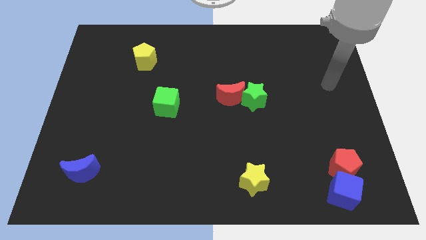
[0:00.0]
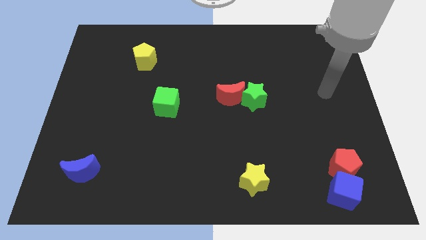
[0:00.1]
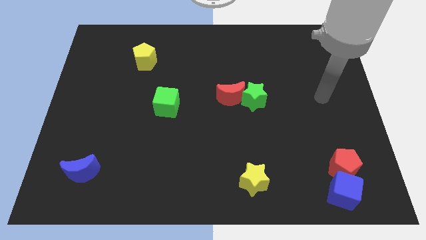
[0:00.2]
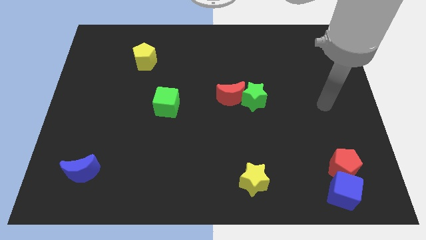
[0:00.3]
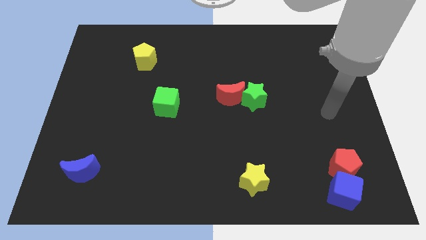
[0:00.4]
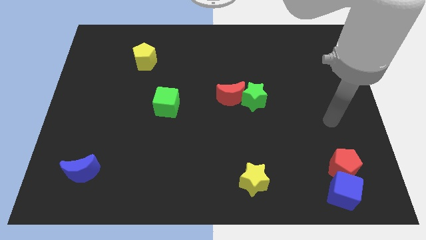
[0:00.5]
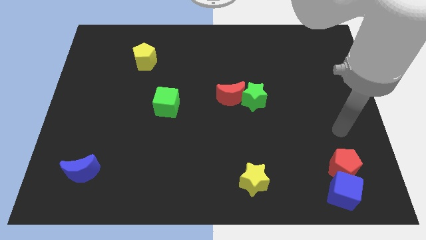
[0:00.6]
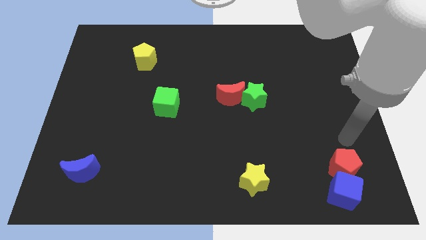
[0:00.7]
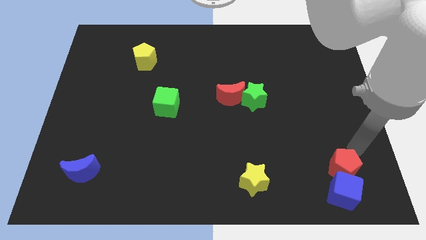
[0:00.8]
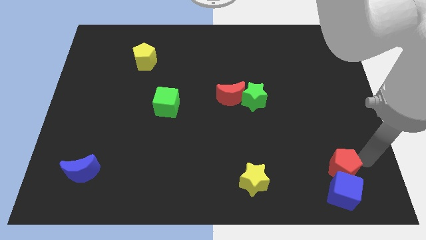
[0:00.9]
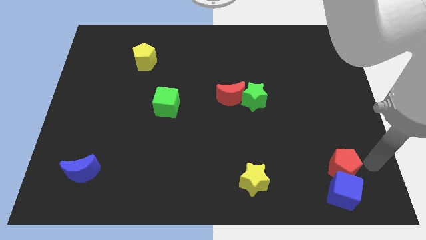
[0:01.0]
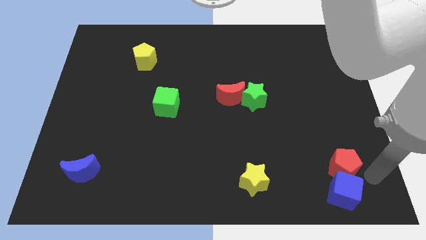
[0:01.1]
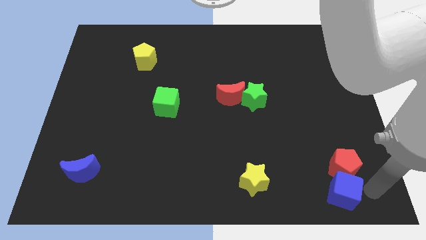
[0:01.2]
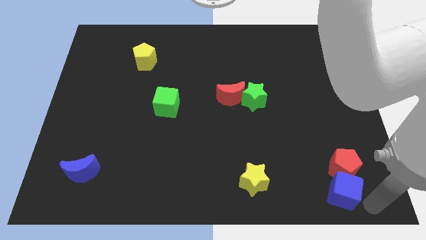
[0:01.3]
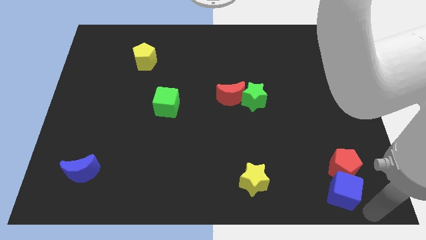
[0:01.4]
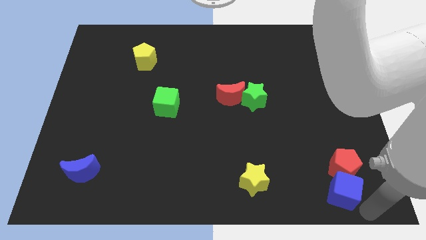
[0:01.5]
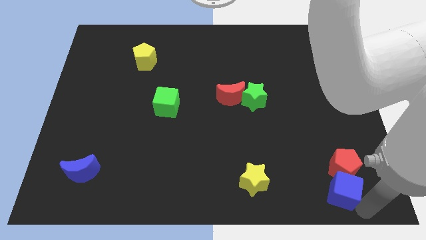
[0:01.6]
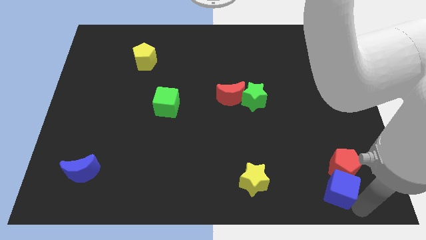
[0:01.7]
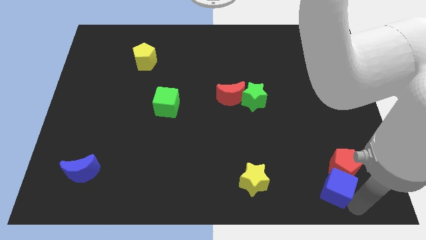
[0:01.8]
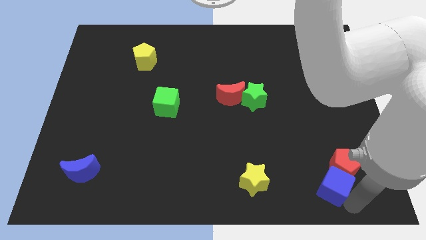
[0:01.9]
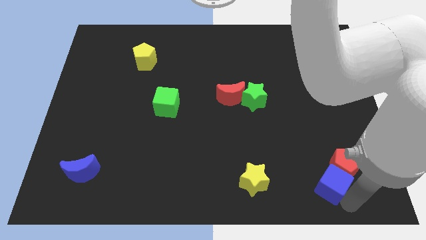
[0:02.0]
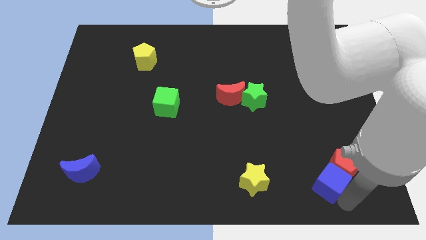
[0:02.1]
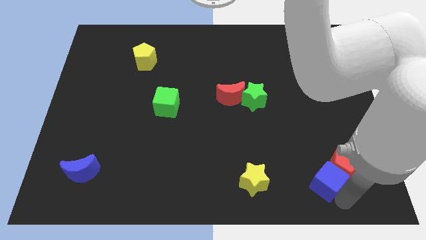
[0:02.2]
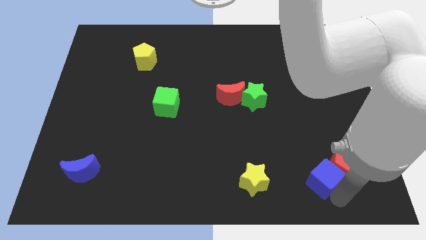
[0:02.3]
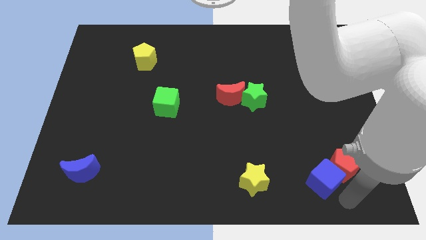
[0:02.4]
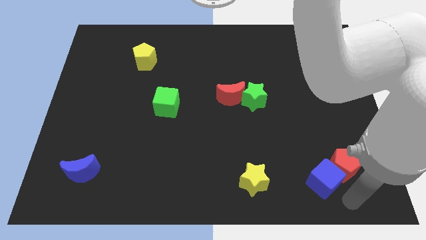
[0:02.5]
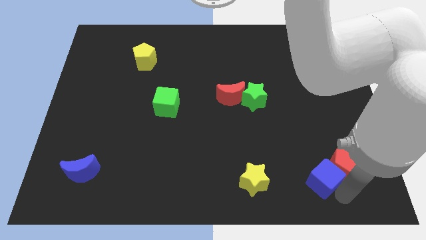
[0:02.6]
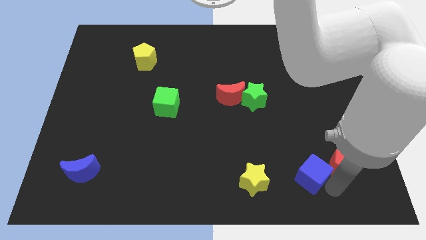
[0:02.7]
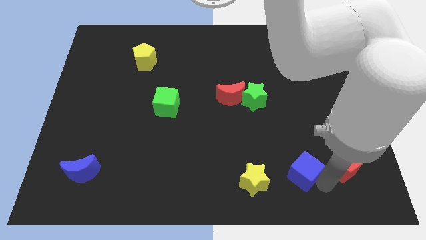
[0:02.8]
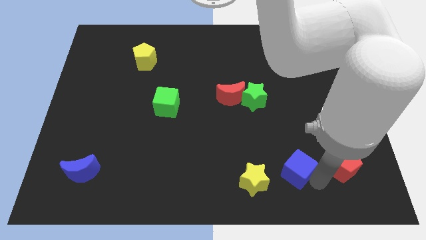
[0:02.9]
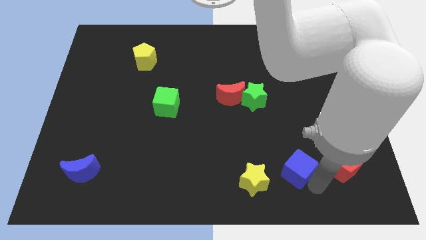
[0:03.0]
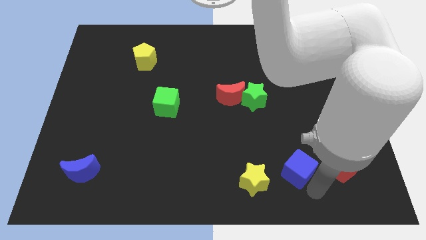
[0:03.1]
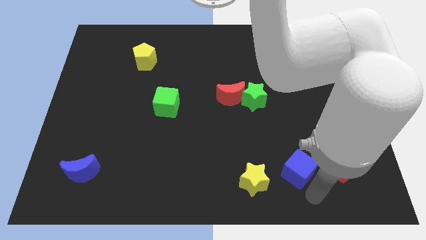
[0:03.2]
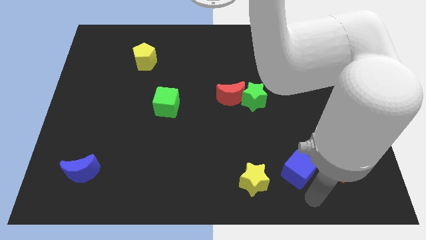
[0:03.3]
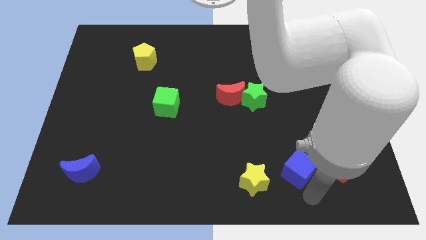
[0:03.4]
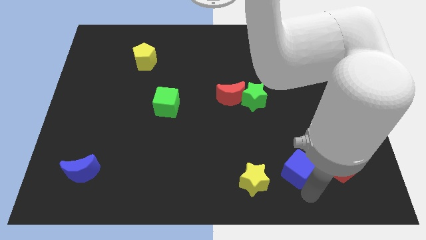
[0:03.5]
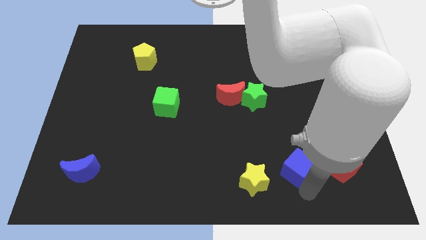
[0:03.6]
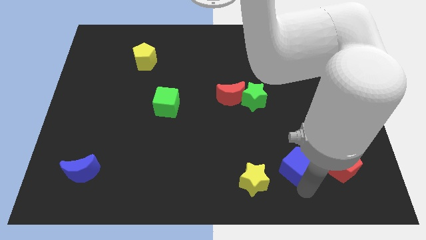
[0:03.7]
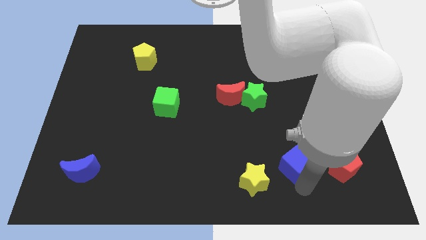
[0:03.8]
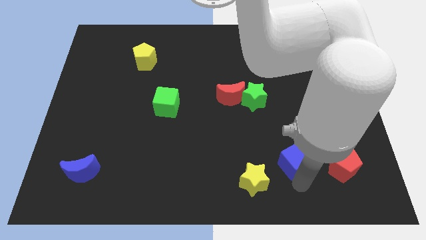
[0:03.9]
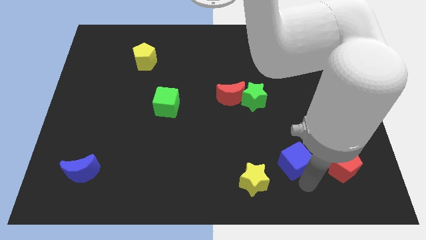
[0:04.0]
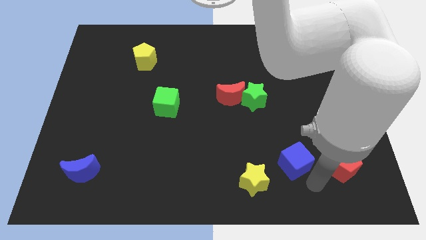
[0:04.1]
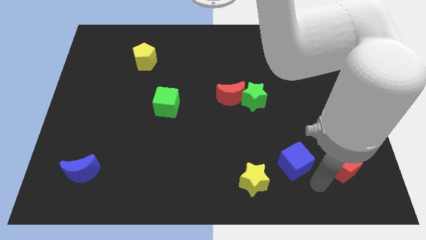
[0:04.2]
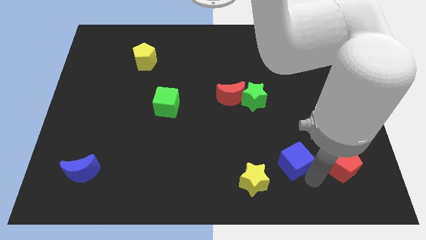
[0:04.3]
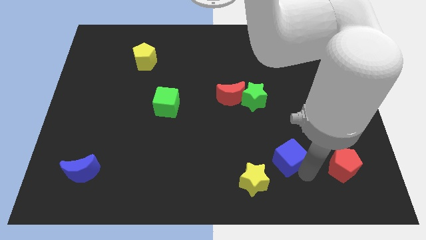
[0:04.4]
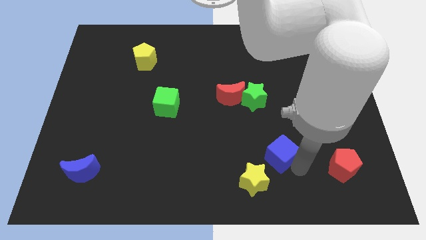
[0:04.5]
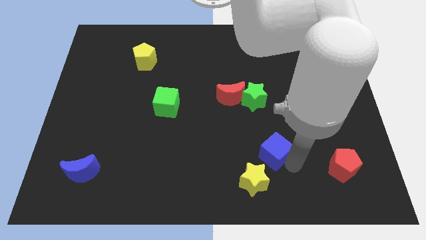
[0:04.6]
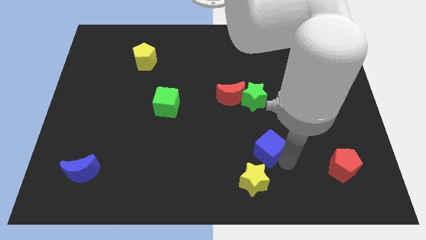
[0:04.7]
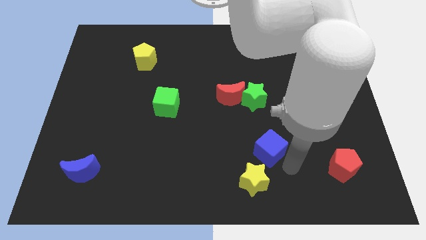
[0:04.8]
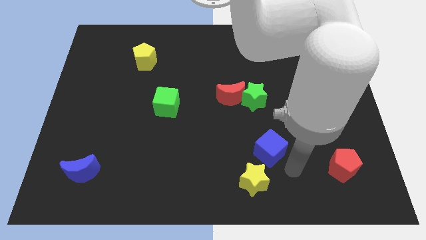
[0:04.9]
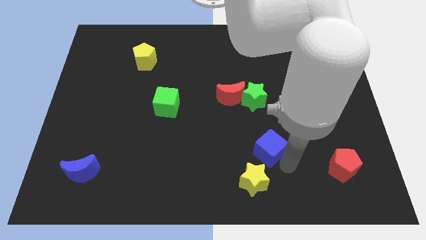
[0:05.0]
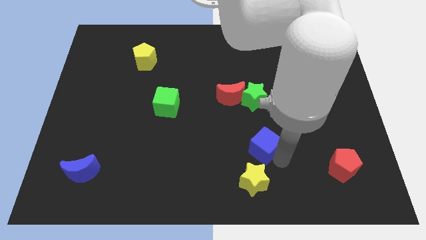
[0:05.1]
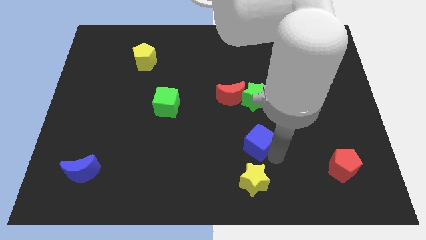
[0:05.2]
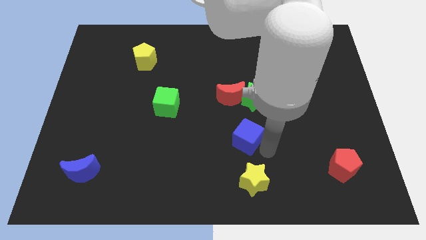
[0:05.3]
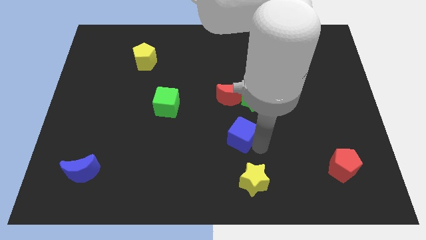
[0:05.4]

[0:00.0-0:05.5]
push the blue cube to the middle of the board

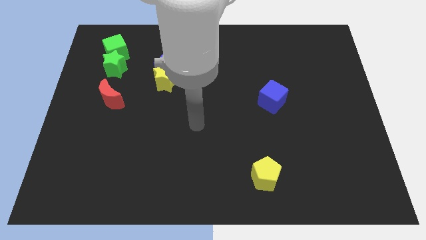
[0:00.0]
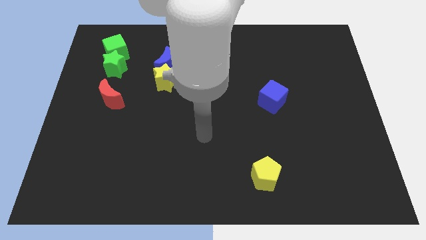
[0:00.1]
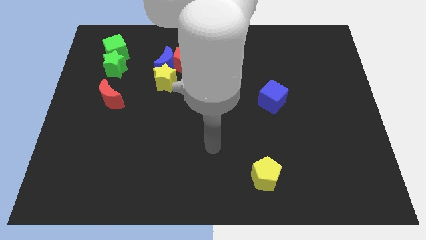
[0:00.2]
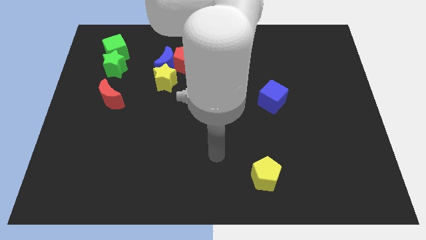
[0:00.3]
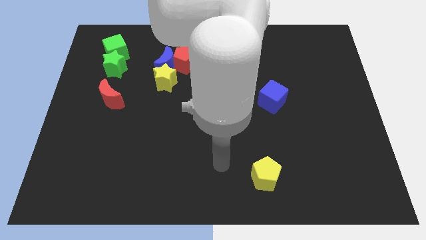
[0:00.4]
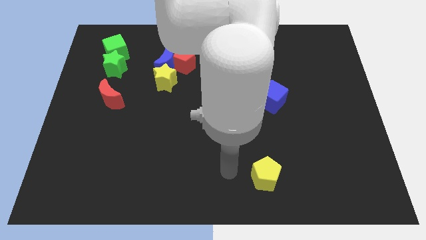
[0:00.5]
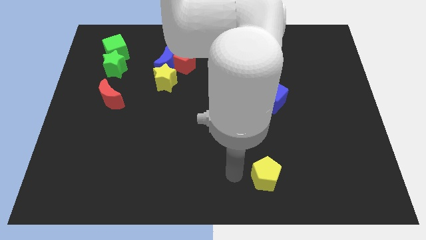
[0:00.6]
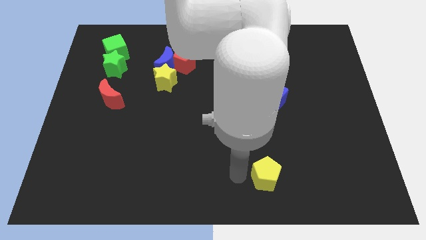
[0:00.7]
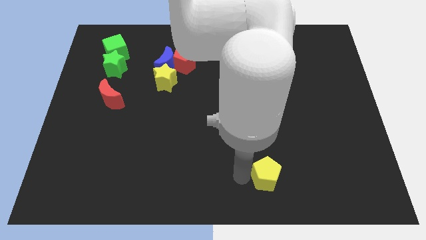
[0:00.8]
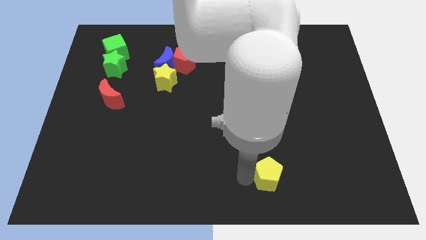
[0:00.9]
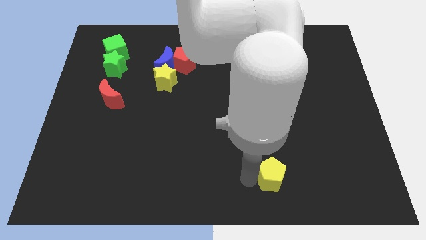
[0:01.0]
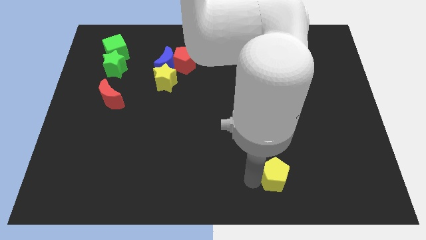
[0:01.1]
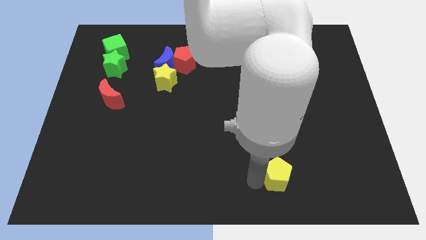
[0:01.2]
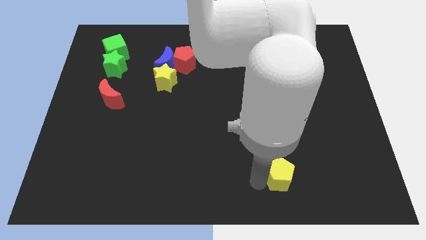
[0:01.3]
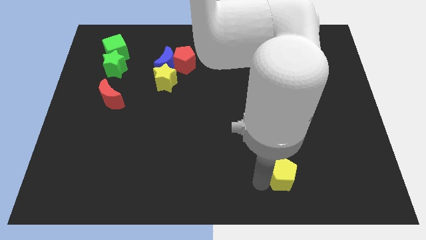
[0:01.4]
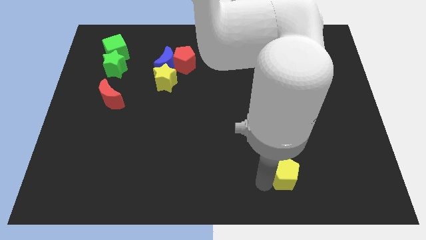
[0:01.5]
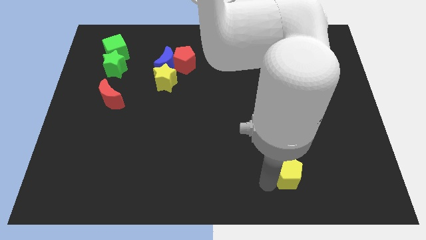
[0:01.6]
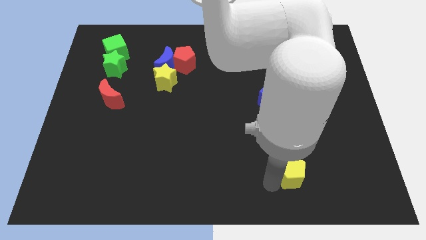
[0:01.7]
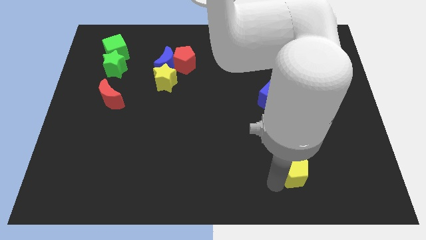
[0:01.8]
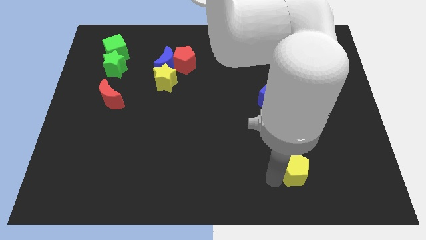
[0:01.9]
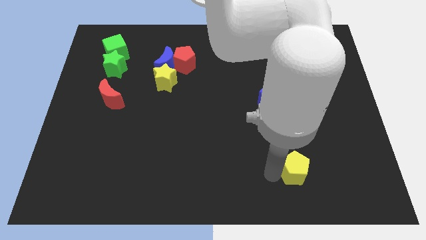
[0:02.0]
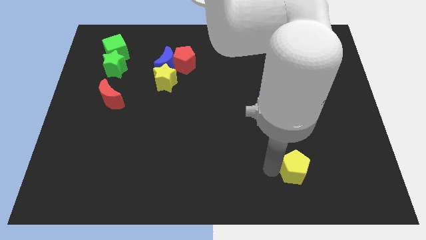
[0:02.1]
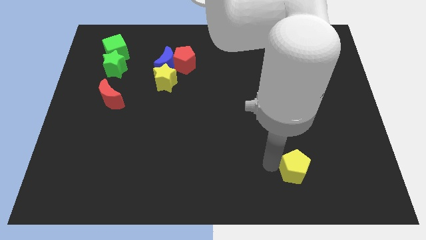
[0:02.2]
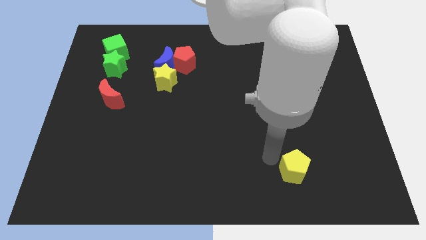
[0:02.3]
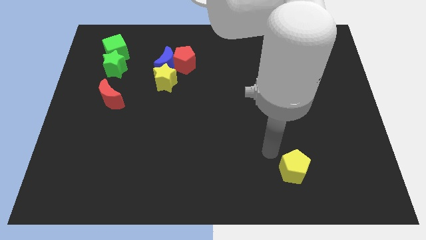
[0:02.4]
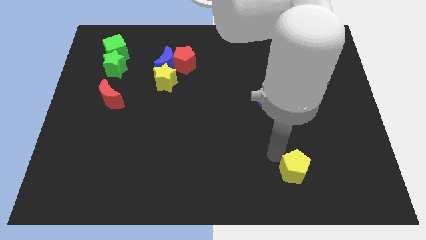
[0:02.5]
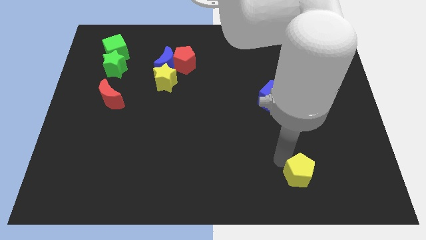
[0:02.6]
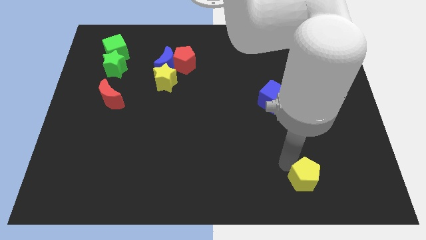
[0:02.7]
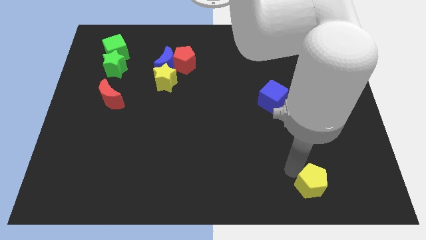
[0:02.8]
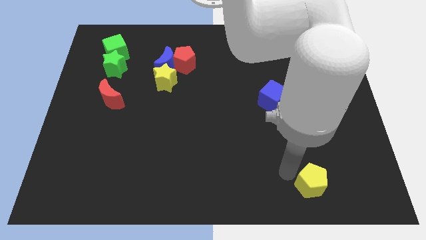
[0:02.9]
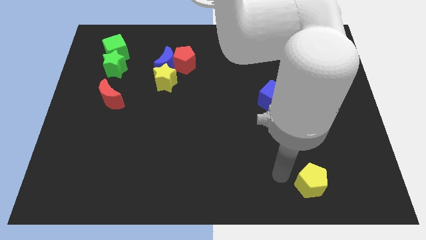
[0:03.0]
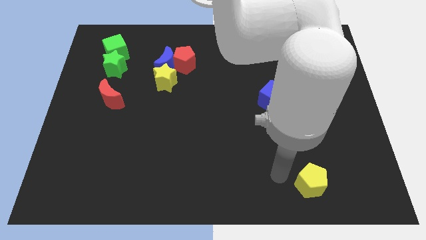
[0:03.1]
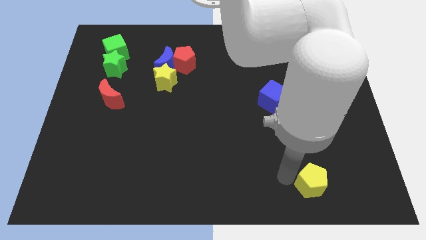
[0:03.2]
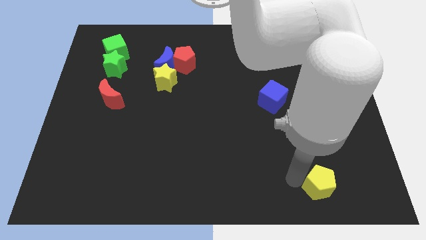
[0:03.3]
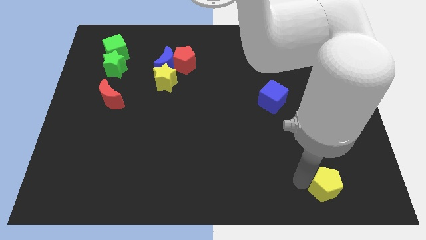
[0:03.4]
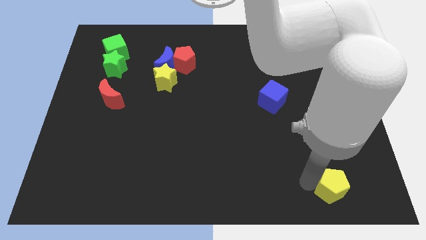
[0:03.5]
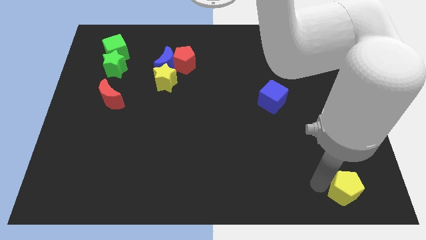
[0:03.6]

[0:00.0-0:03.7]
push the yellow pentagon to the lower right corner
